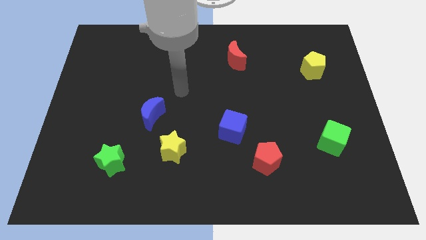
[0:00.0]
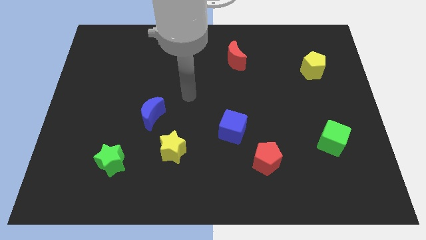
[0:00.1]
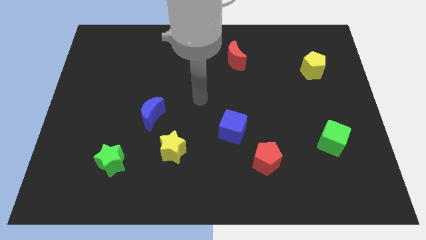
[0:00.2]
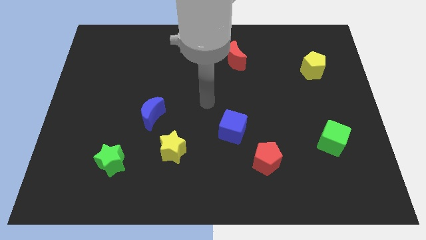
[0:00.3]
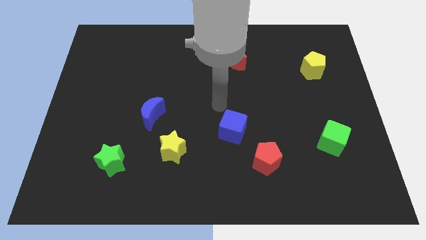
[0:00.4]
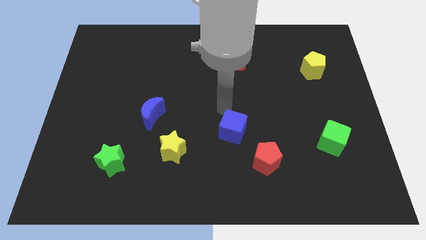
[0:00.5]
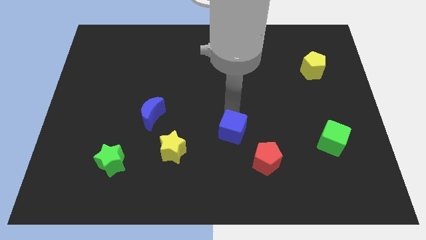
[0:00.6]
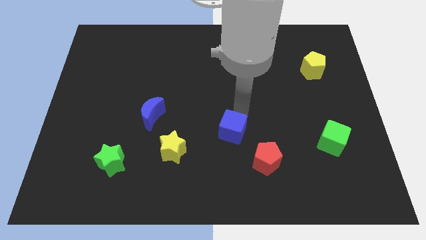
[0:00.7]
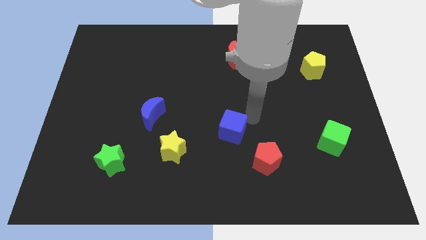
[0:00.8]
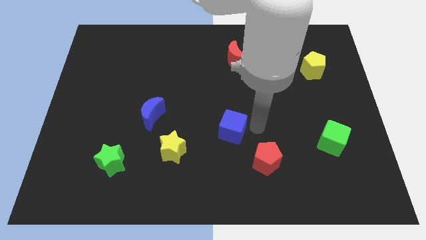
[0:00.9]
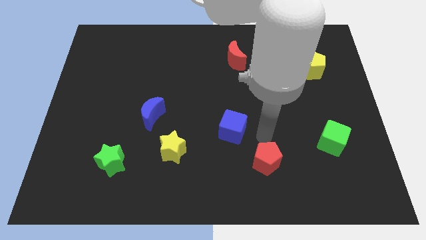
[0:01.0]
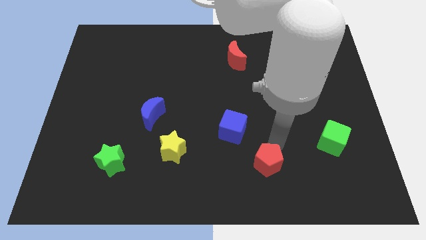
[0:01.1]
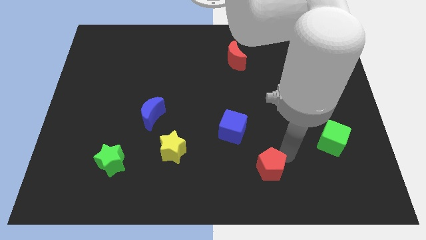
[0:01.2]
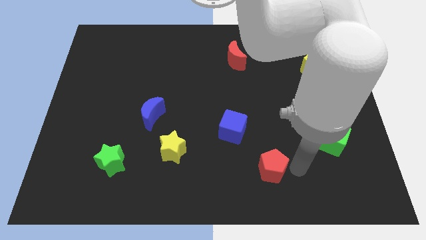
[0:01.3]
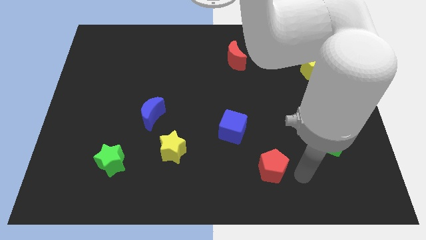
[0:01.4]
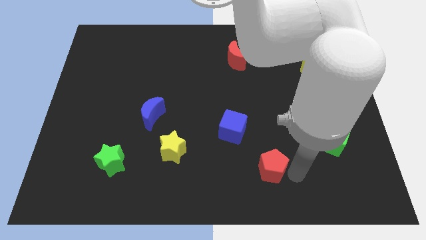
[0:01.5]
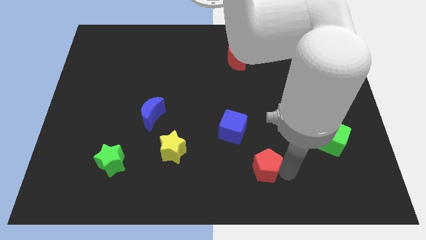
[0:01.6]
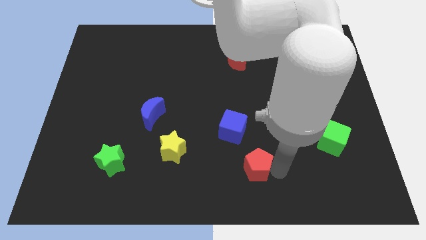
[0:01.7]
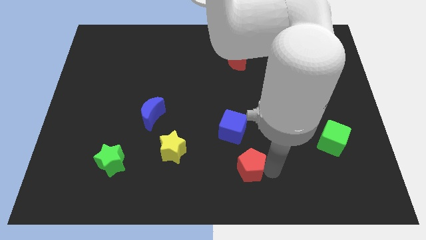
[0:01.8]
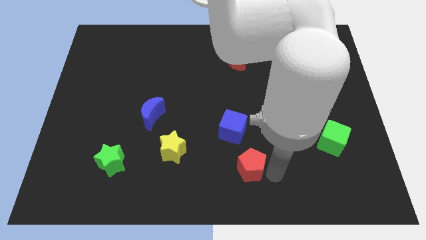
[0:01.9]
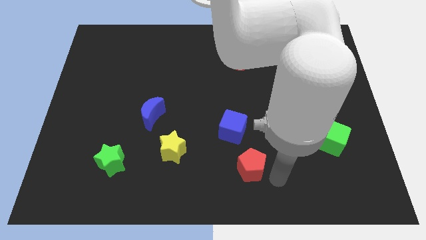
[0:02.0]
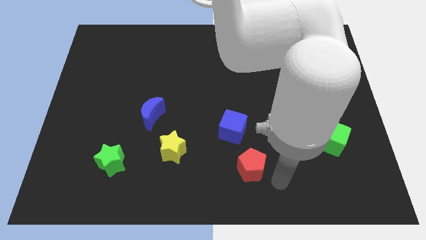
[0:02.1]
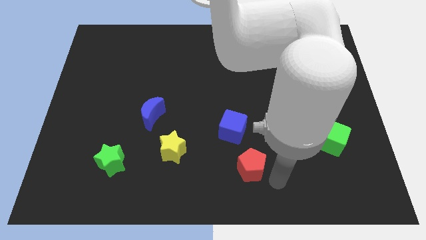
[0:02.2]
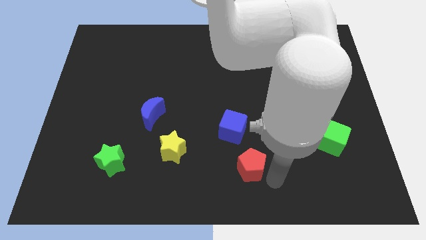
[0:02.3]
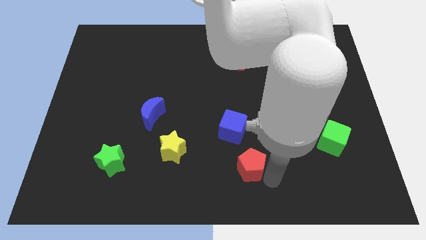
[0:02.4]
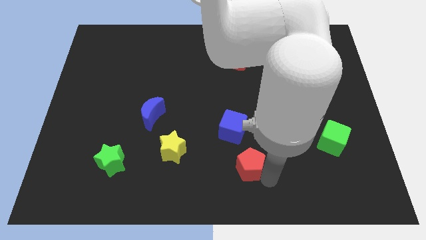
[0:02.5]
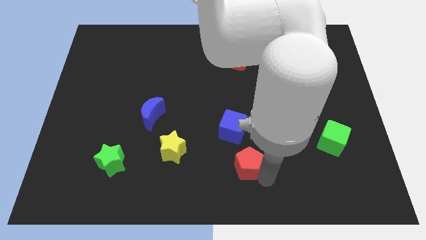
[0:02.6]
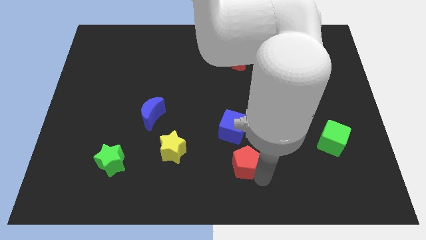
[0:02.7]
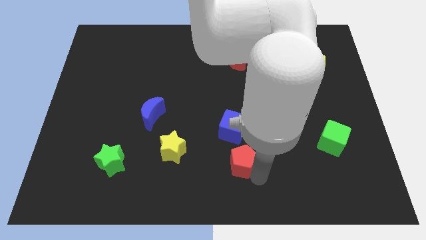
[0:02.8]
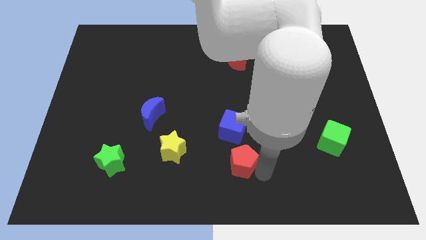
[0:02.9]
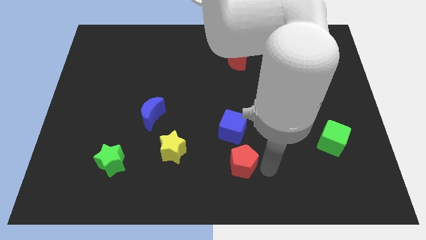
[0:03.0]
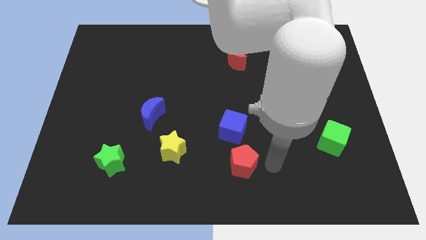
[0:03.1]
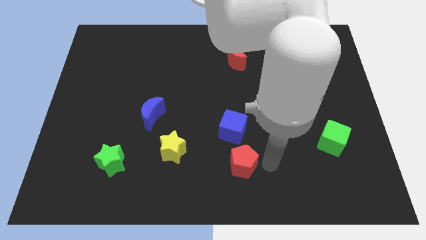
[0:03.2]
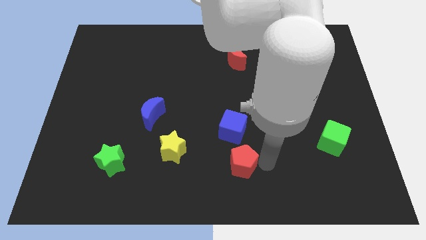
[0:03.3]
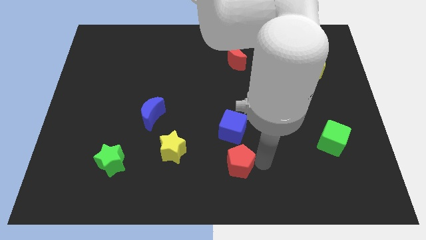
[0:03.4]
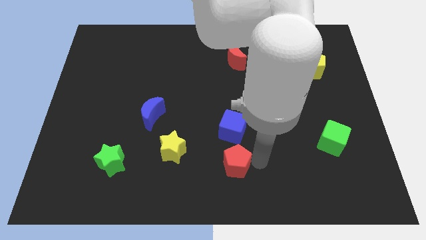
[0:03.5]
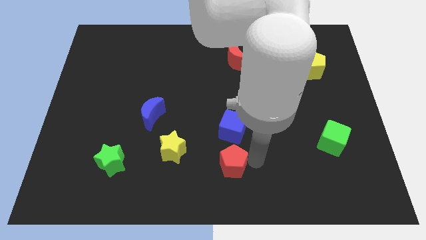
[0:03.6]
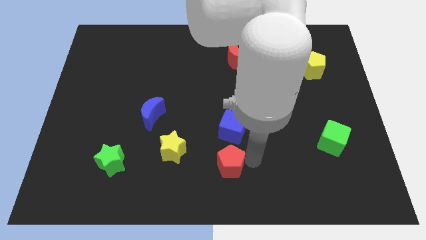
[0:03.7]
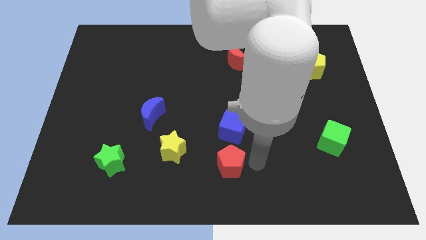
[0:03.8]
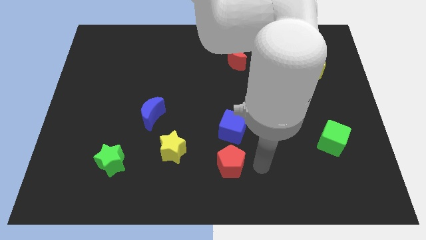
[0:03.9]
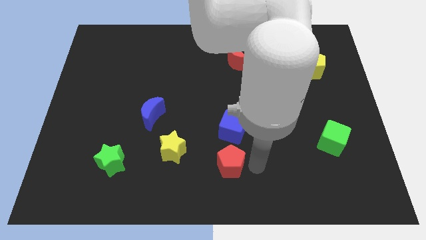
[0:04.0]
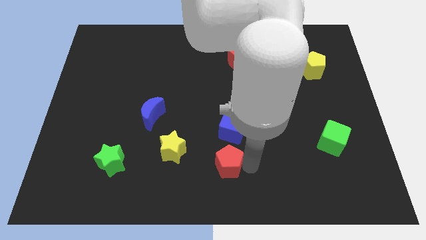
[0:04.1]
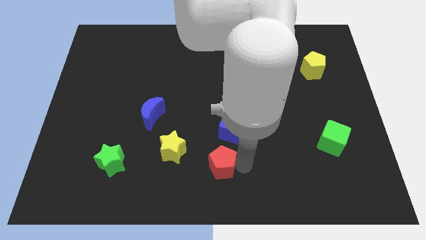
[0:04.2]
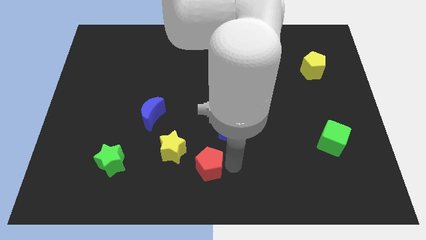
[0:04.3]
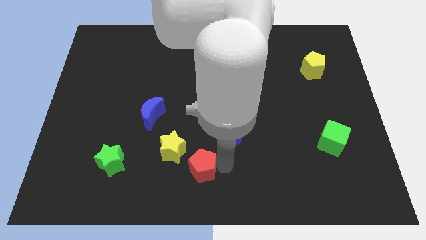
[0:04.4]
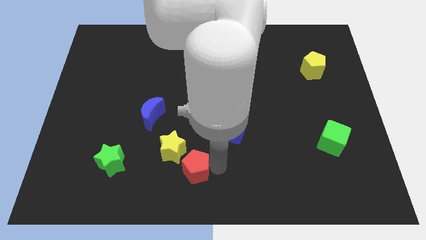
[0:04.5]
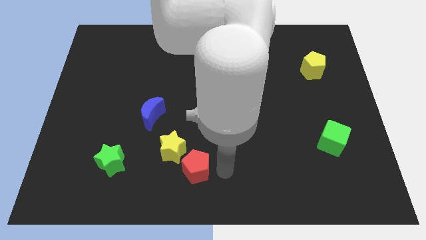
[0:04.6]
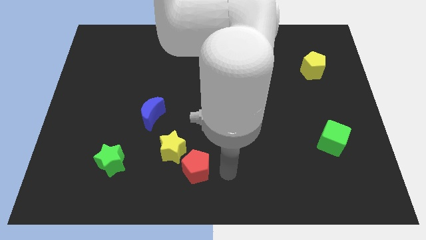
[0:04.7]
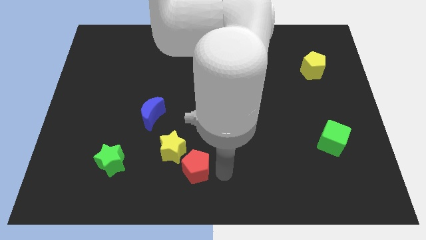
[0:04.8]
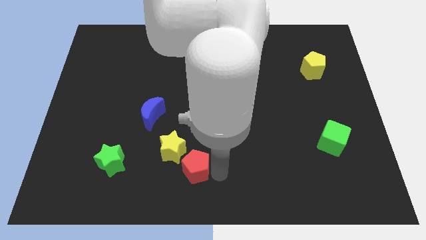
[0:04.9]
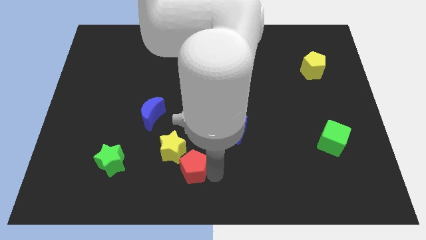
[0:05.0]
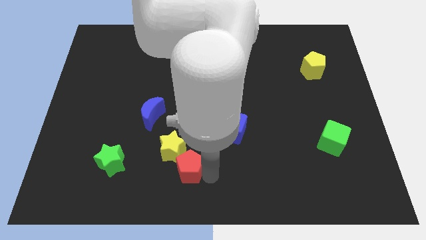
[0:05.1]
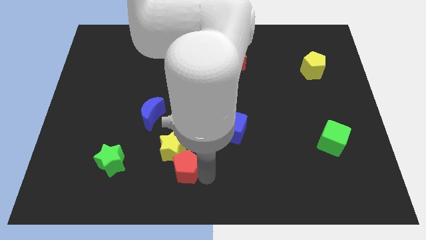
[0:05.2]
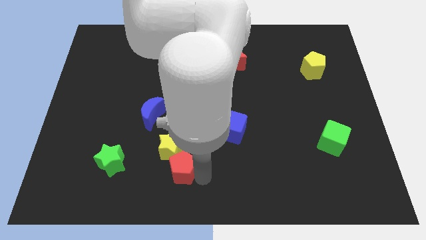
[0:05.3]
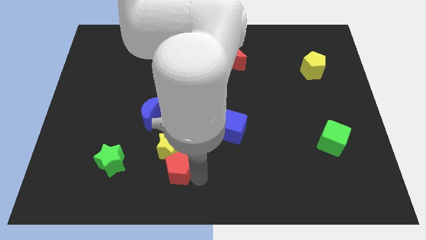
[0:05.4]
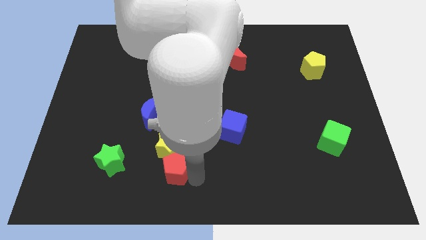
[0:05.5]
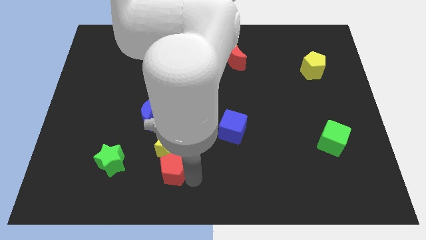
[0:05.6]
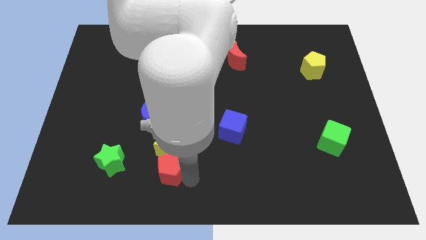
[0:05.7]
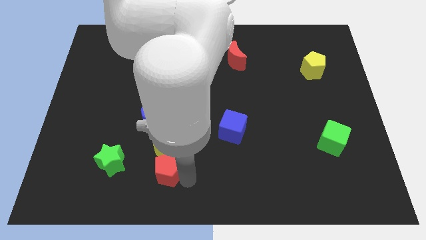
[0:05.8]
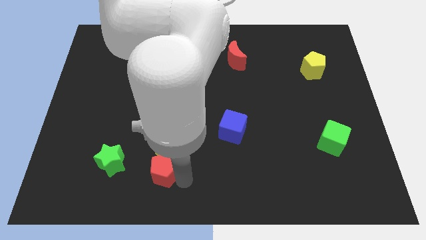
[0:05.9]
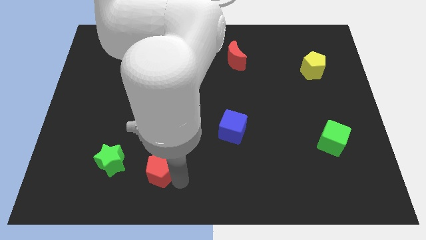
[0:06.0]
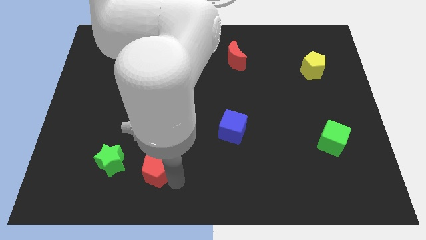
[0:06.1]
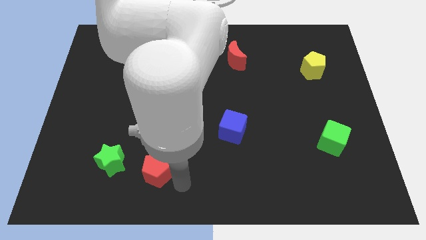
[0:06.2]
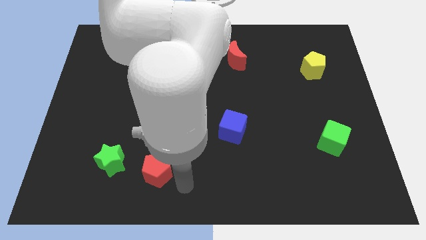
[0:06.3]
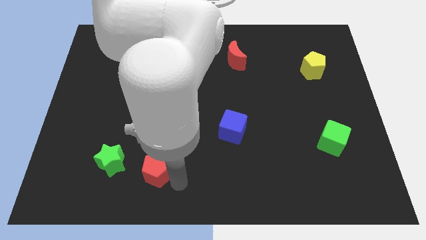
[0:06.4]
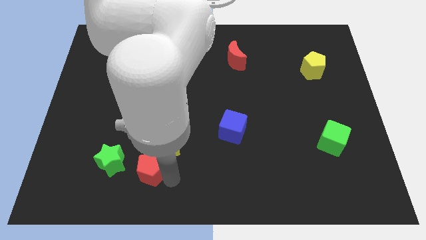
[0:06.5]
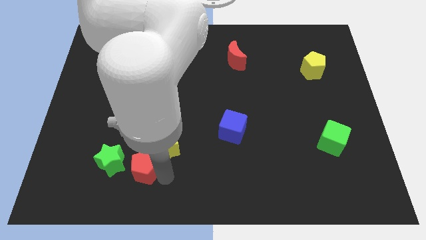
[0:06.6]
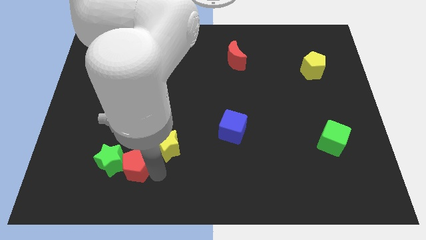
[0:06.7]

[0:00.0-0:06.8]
put the red pentagon next to the green star
